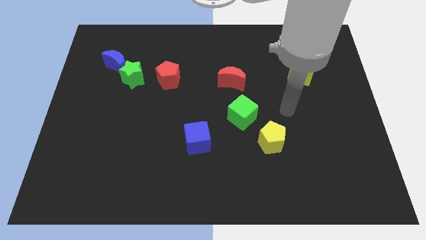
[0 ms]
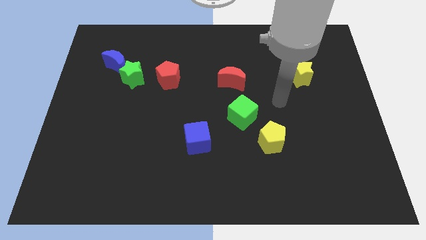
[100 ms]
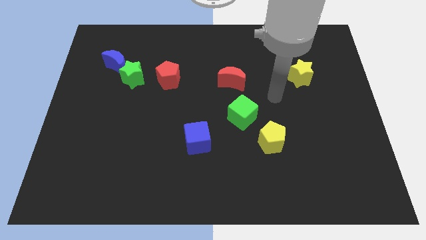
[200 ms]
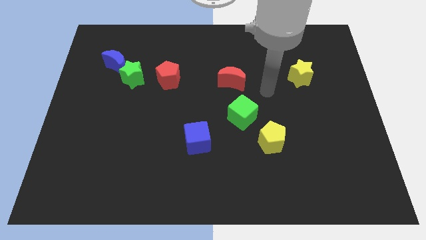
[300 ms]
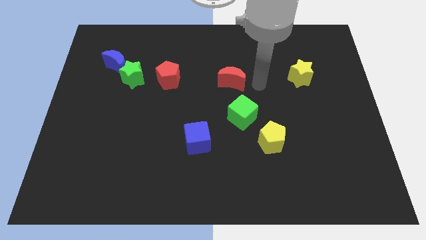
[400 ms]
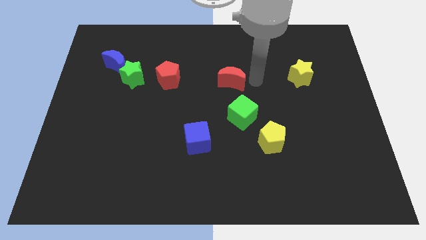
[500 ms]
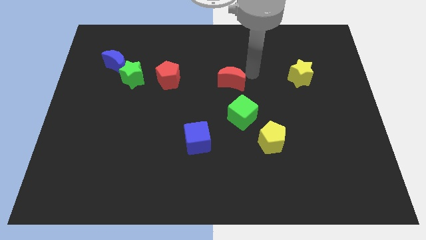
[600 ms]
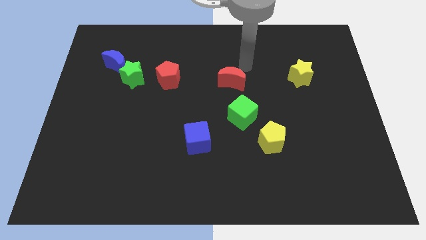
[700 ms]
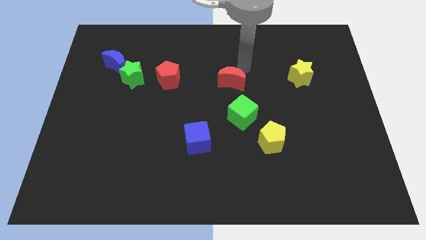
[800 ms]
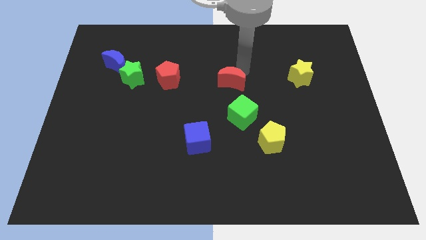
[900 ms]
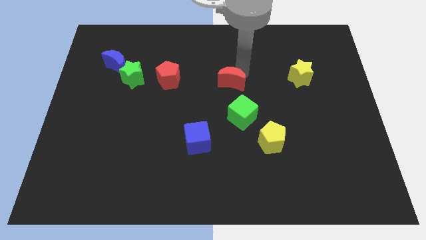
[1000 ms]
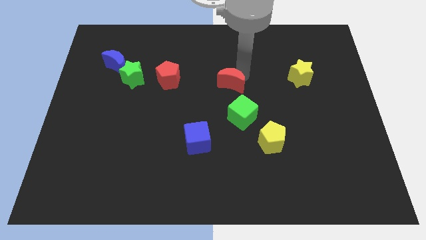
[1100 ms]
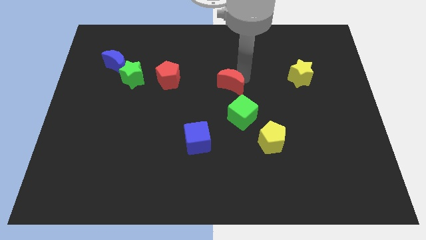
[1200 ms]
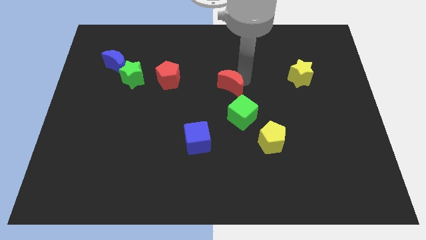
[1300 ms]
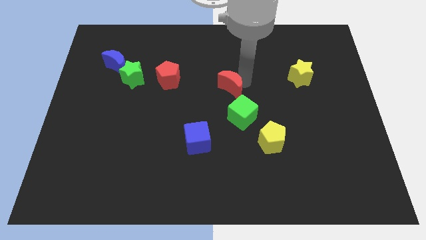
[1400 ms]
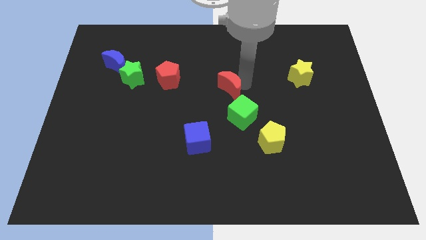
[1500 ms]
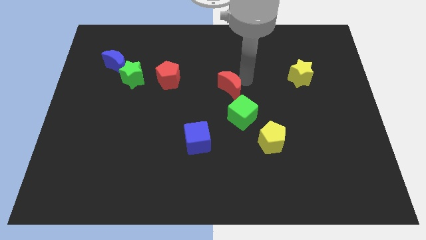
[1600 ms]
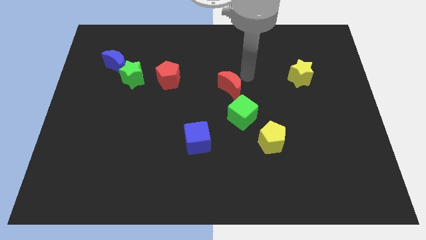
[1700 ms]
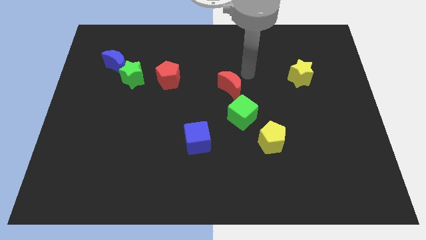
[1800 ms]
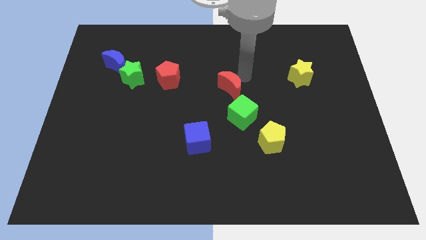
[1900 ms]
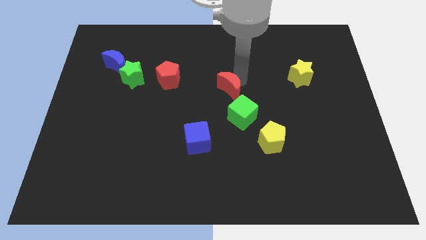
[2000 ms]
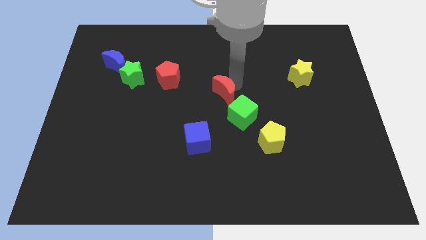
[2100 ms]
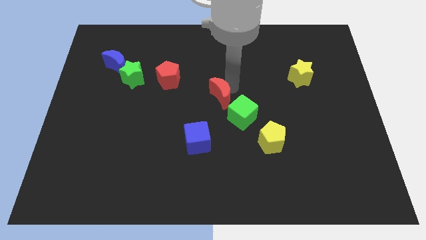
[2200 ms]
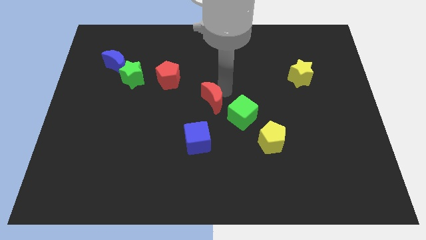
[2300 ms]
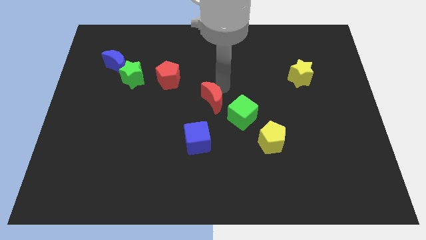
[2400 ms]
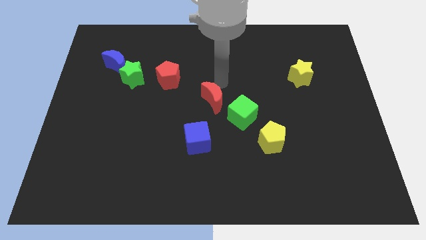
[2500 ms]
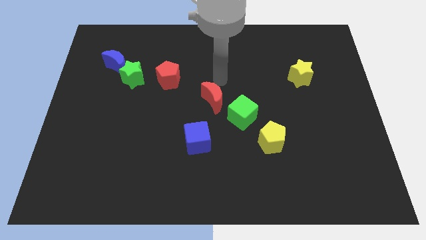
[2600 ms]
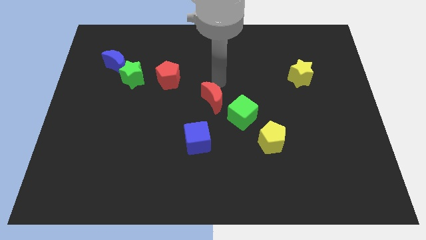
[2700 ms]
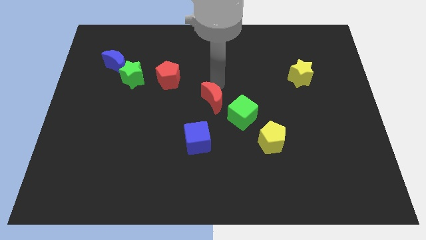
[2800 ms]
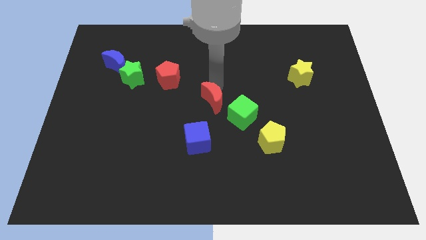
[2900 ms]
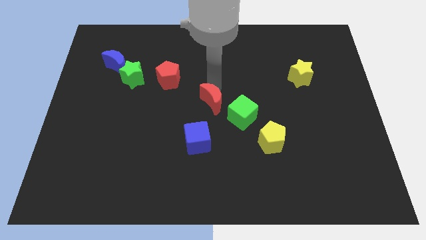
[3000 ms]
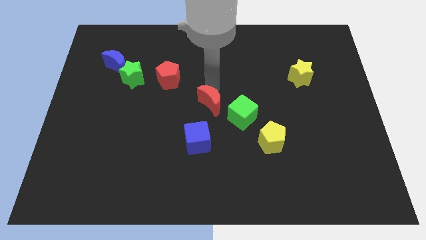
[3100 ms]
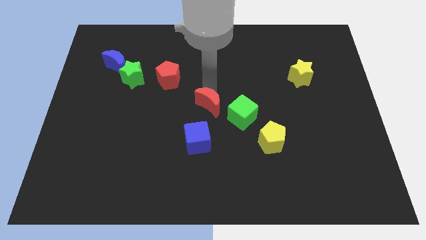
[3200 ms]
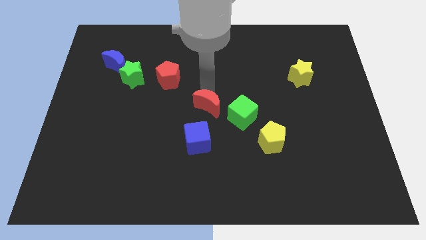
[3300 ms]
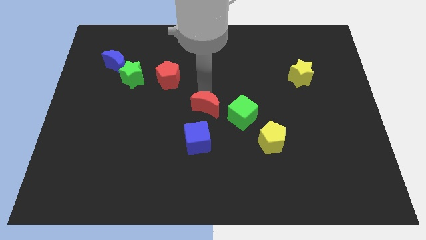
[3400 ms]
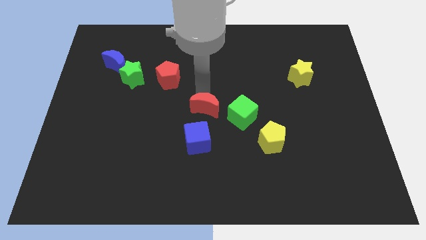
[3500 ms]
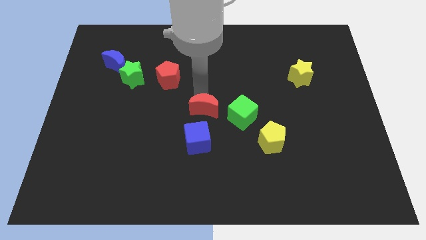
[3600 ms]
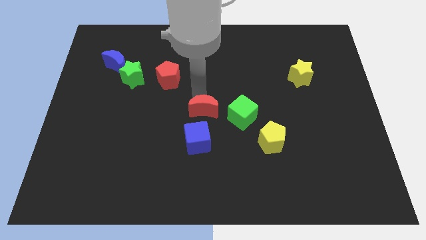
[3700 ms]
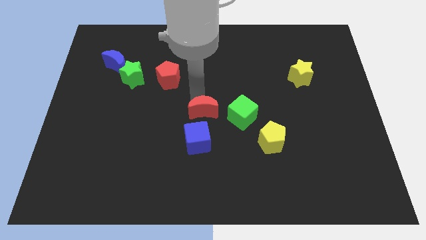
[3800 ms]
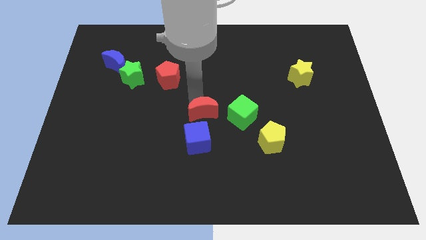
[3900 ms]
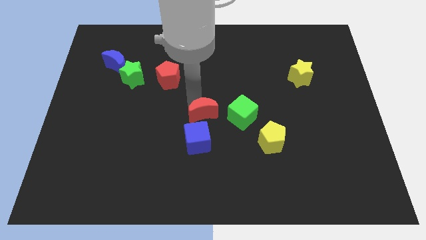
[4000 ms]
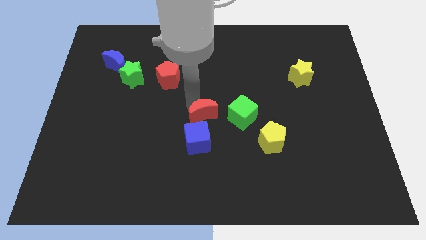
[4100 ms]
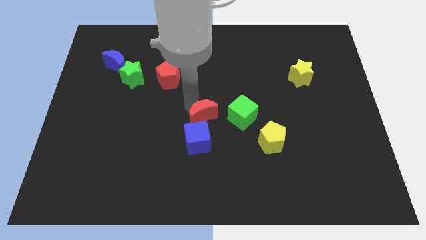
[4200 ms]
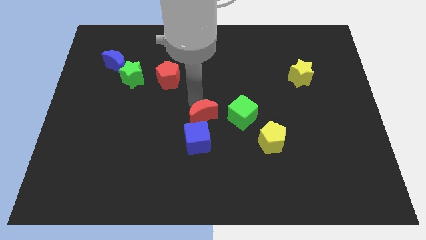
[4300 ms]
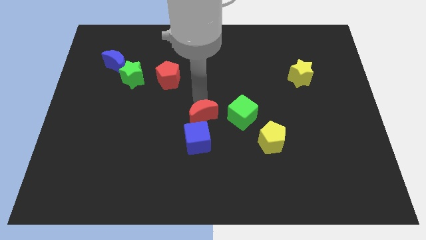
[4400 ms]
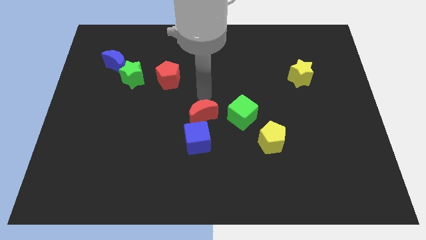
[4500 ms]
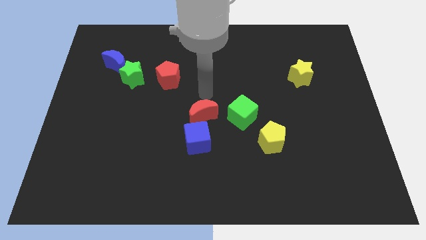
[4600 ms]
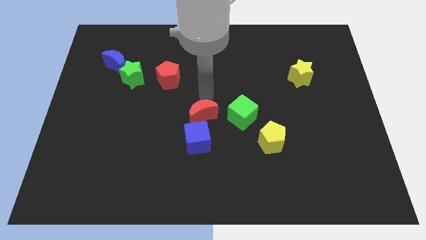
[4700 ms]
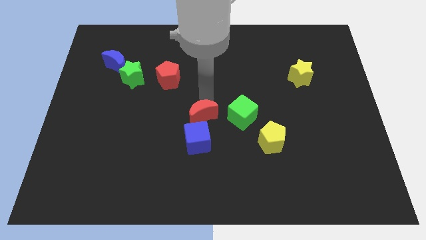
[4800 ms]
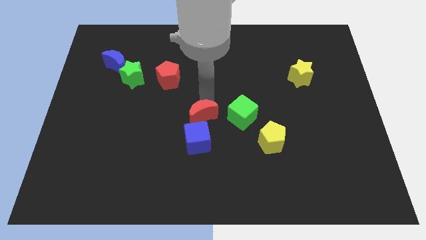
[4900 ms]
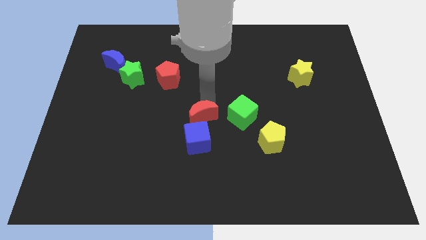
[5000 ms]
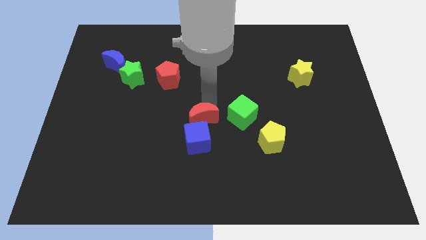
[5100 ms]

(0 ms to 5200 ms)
slide the red moon towards the blue cube

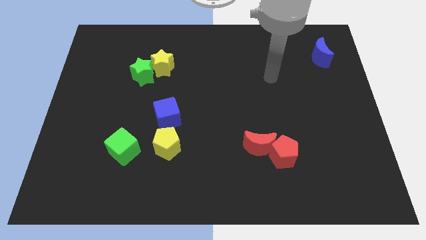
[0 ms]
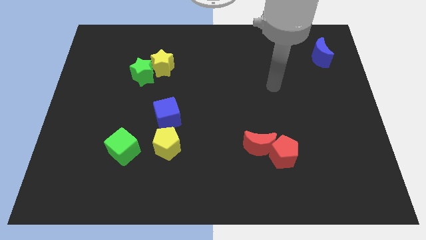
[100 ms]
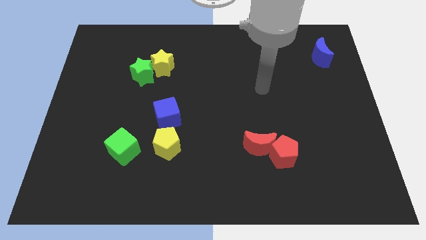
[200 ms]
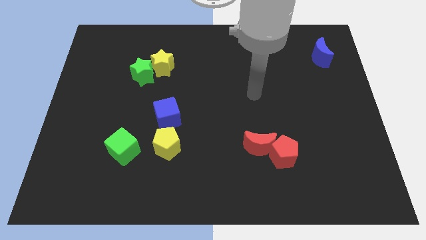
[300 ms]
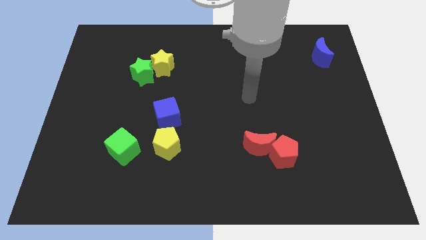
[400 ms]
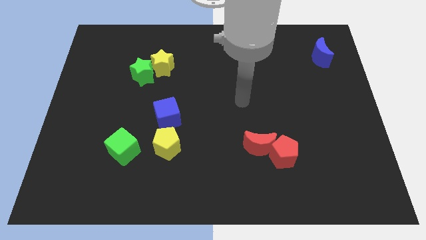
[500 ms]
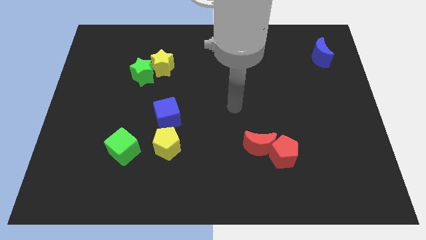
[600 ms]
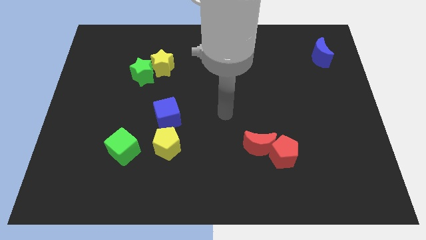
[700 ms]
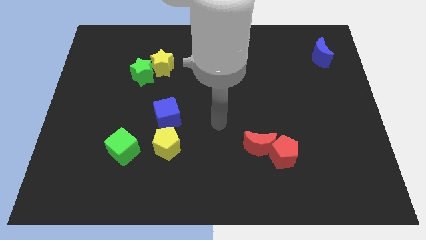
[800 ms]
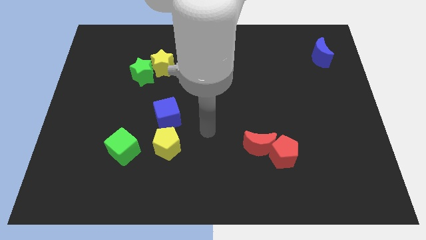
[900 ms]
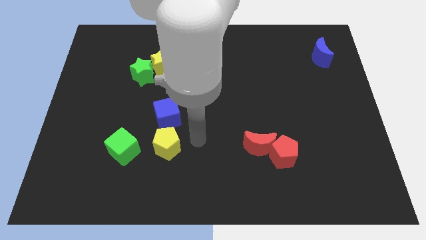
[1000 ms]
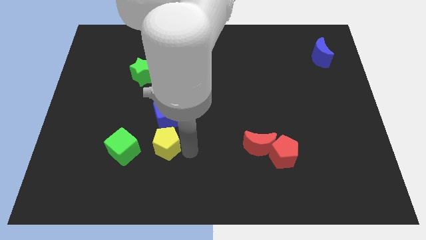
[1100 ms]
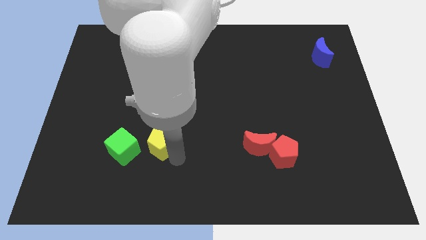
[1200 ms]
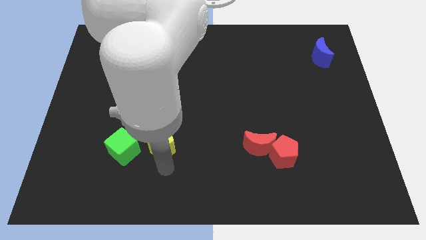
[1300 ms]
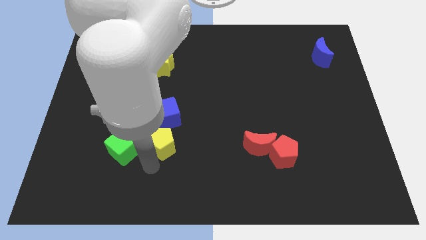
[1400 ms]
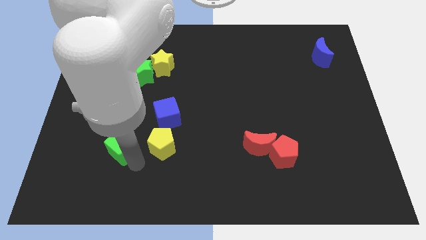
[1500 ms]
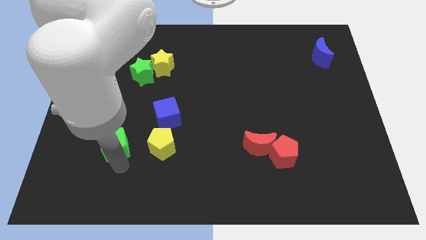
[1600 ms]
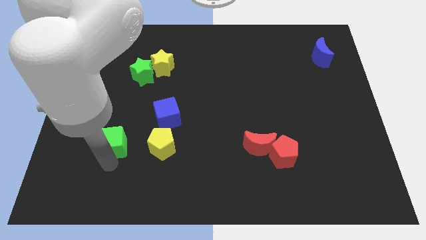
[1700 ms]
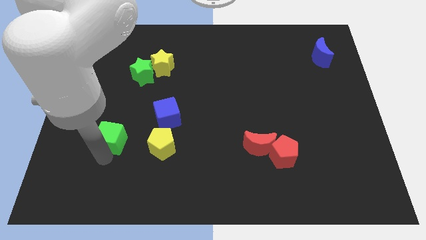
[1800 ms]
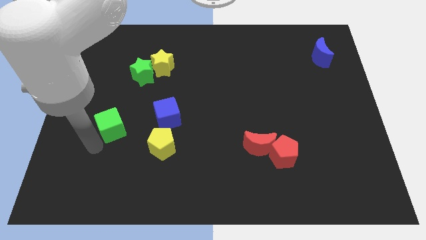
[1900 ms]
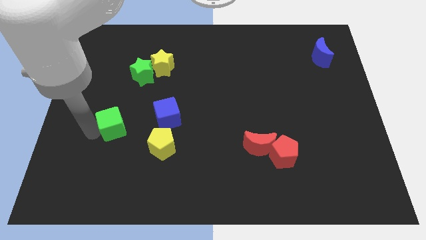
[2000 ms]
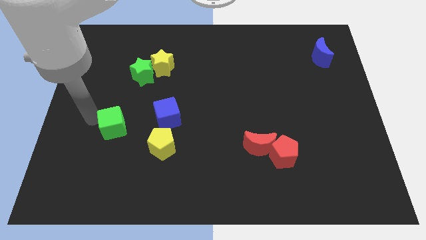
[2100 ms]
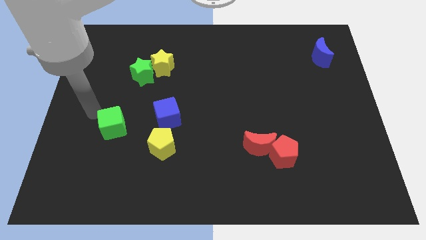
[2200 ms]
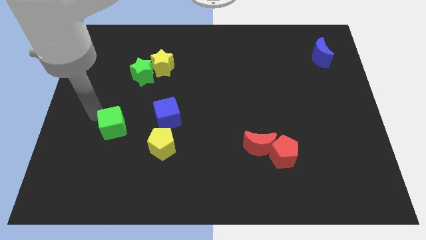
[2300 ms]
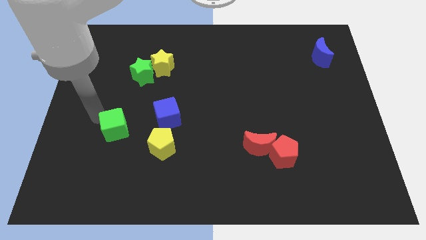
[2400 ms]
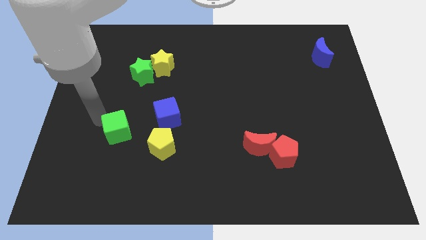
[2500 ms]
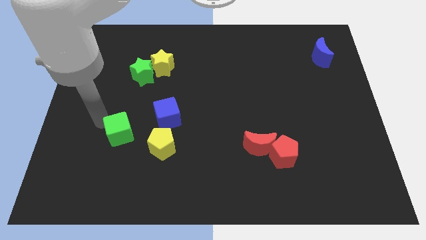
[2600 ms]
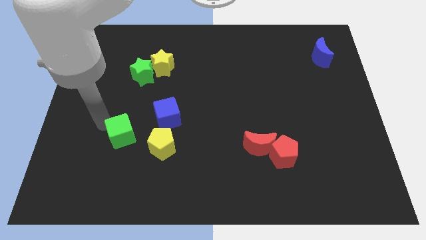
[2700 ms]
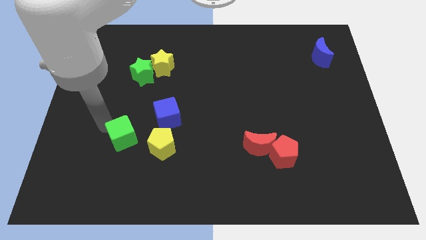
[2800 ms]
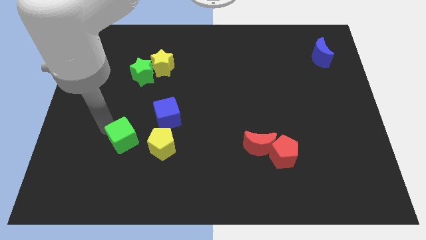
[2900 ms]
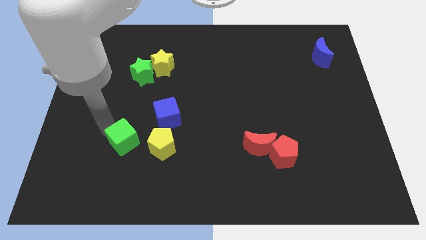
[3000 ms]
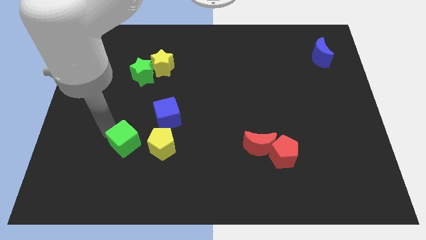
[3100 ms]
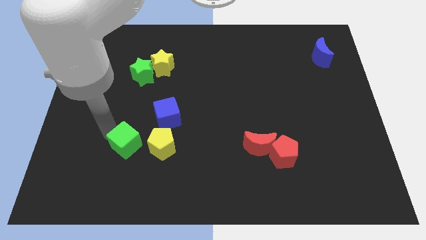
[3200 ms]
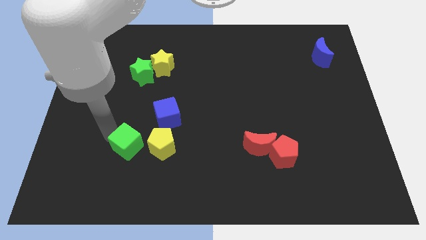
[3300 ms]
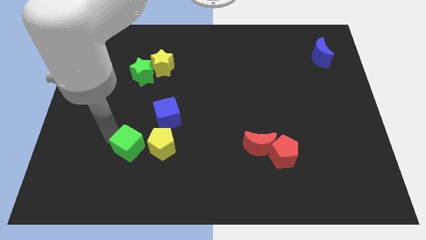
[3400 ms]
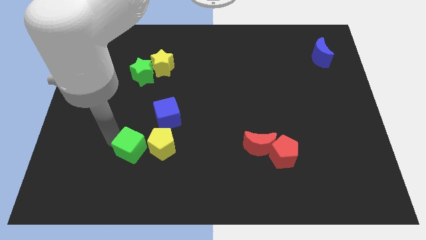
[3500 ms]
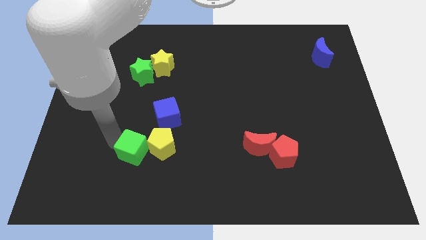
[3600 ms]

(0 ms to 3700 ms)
put the green cube towards the yellow pentagon
